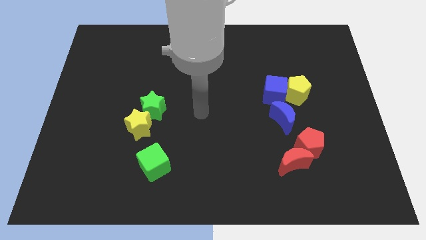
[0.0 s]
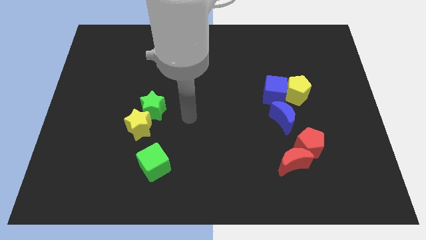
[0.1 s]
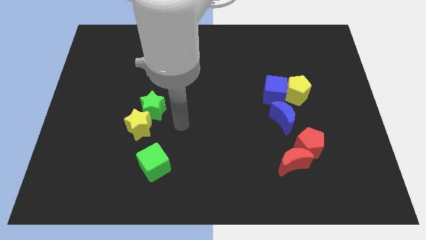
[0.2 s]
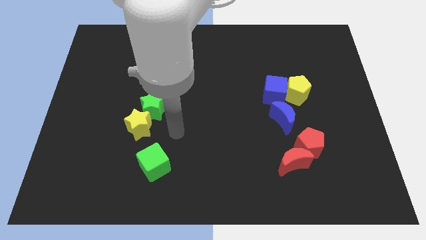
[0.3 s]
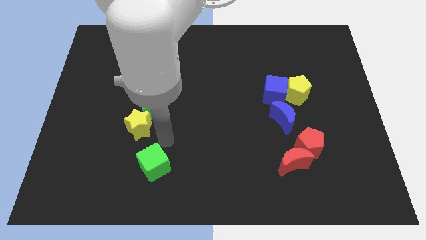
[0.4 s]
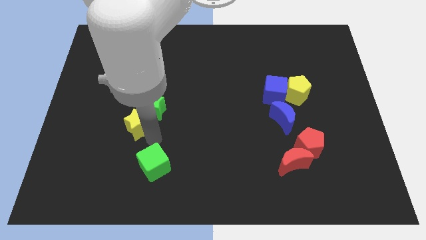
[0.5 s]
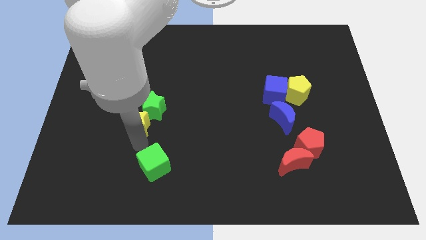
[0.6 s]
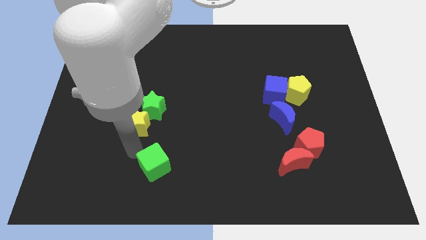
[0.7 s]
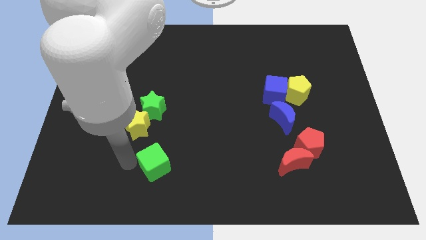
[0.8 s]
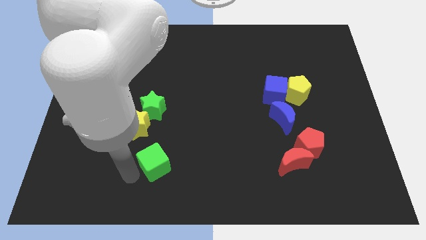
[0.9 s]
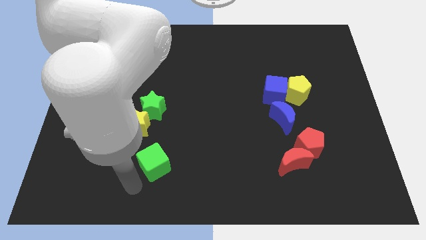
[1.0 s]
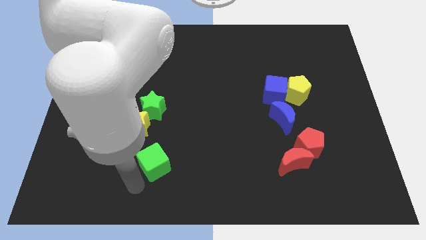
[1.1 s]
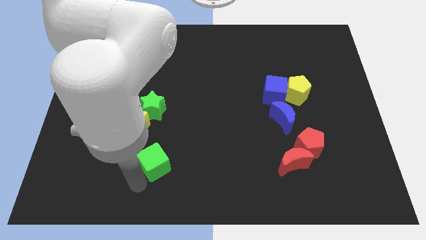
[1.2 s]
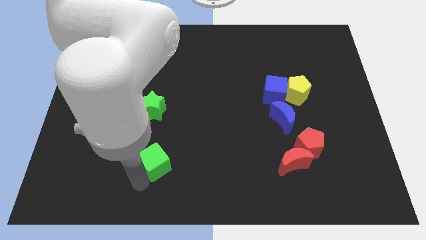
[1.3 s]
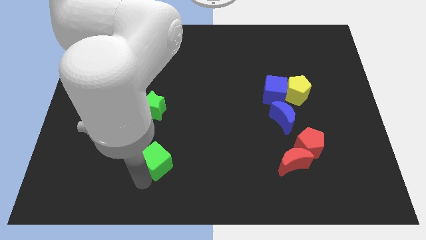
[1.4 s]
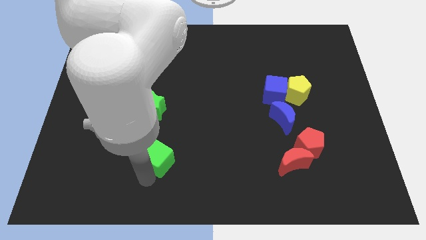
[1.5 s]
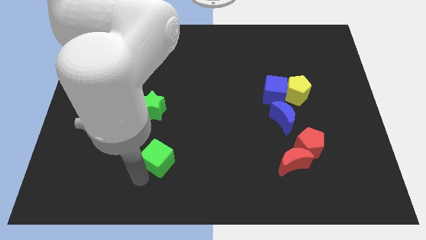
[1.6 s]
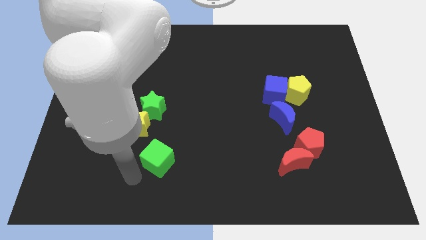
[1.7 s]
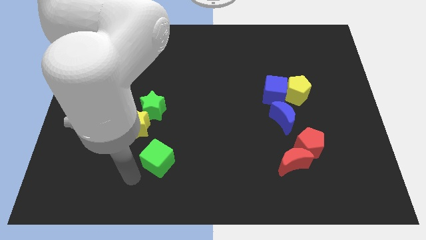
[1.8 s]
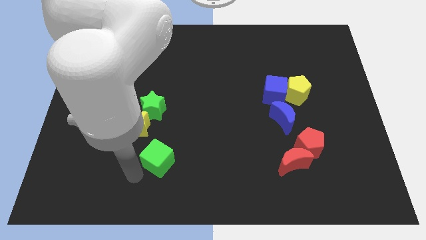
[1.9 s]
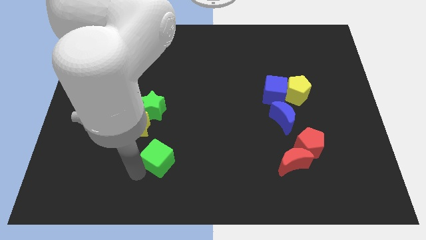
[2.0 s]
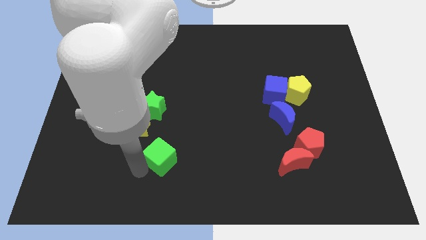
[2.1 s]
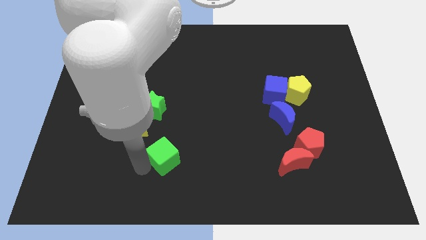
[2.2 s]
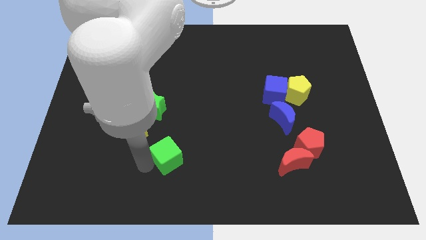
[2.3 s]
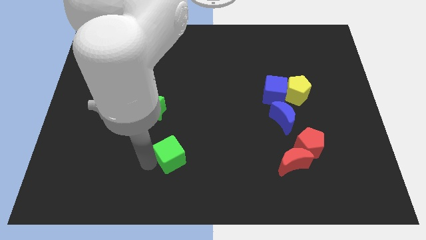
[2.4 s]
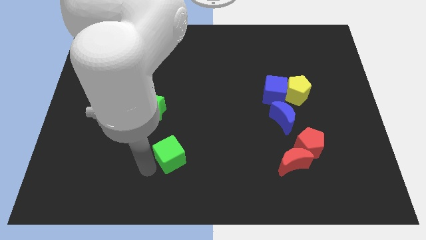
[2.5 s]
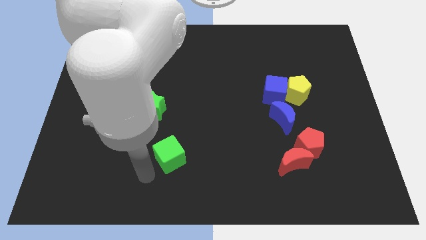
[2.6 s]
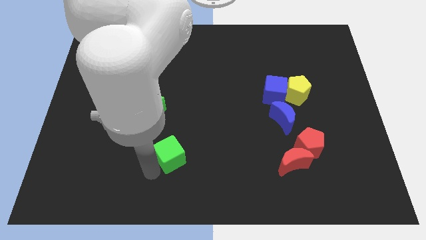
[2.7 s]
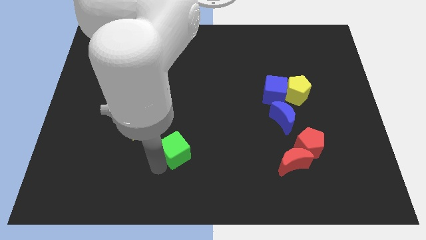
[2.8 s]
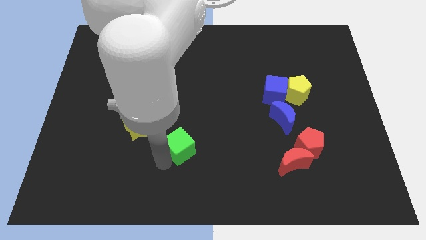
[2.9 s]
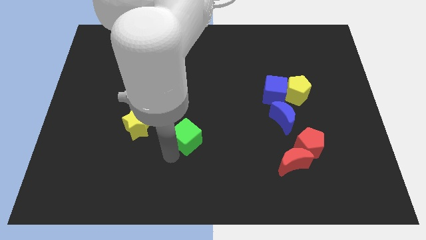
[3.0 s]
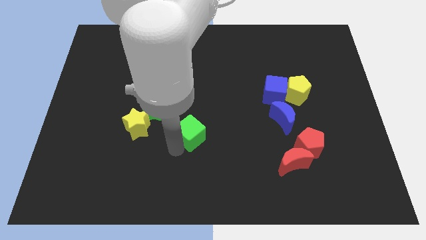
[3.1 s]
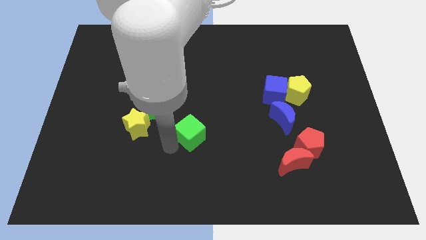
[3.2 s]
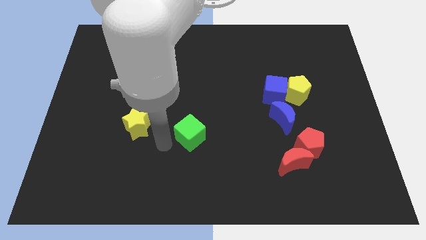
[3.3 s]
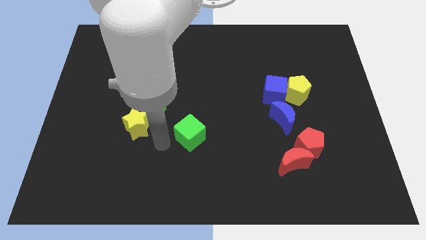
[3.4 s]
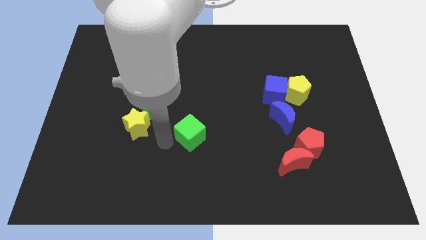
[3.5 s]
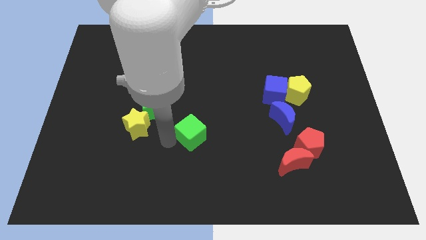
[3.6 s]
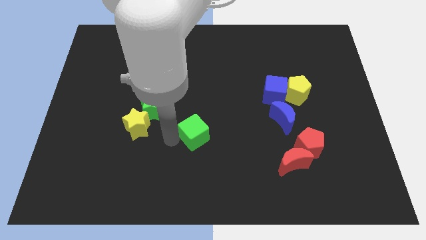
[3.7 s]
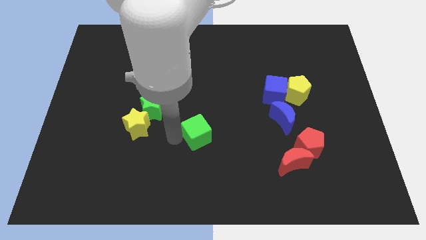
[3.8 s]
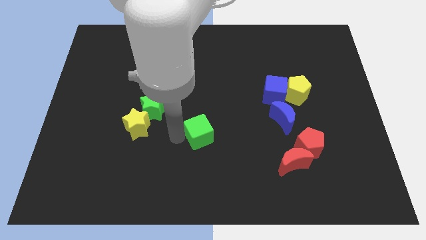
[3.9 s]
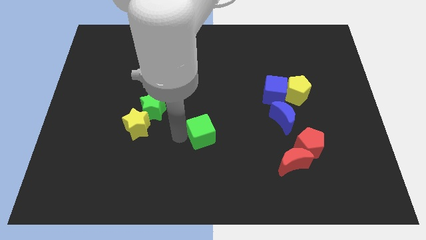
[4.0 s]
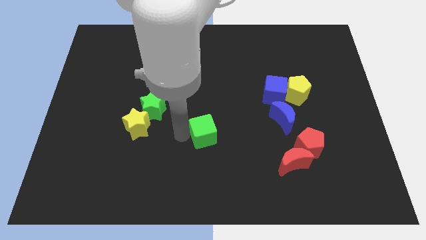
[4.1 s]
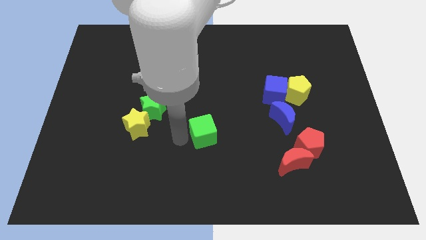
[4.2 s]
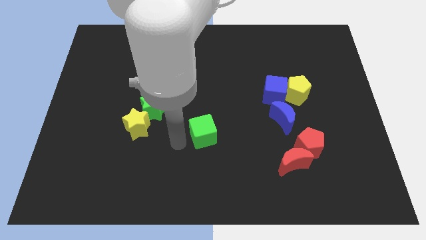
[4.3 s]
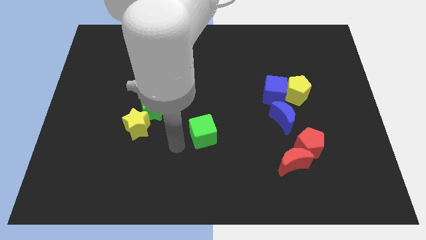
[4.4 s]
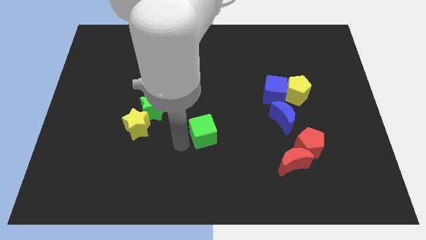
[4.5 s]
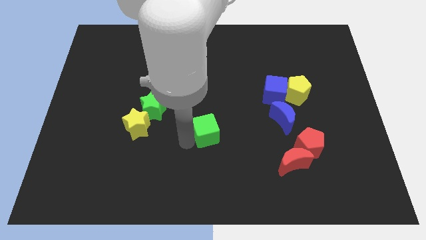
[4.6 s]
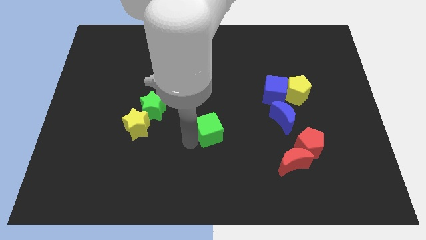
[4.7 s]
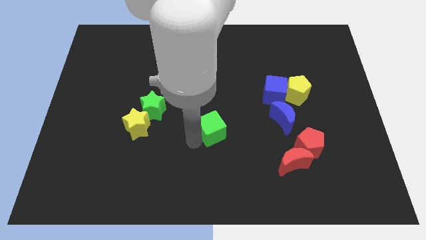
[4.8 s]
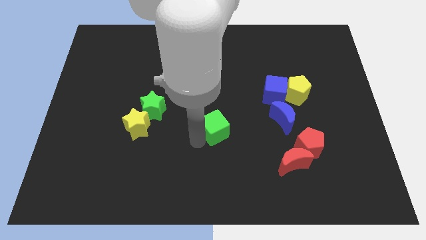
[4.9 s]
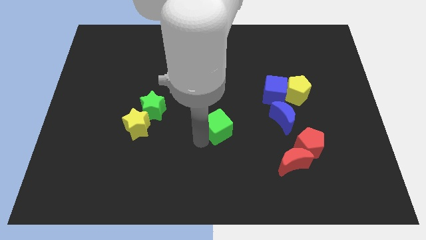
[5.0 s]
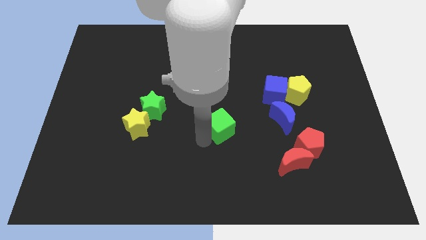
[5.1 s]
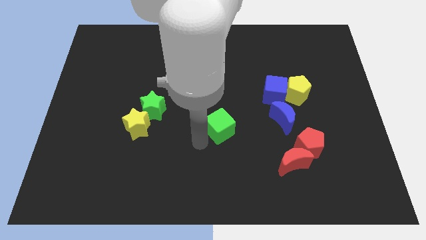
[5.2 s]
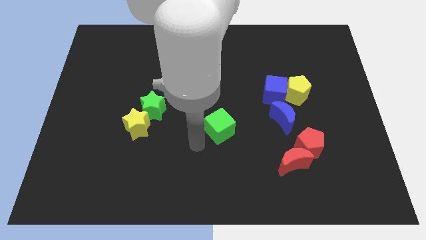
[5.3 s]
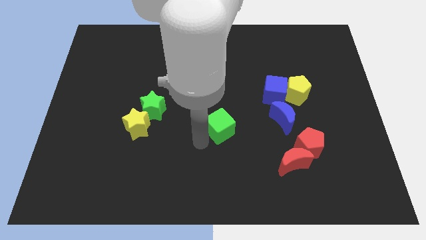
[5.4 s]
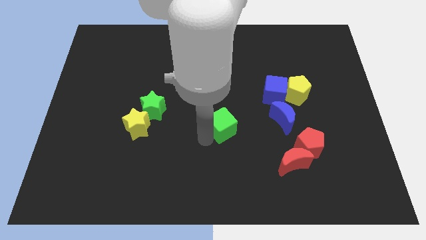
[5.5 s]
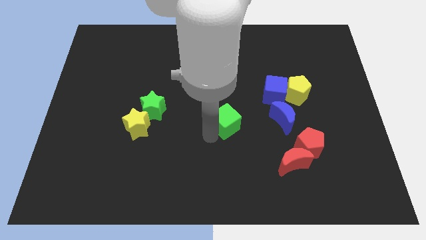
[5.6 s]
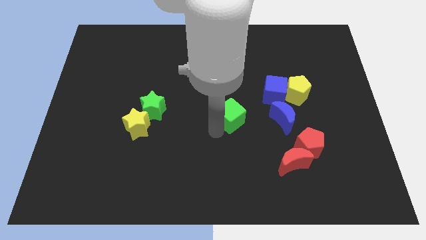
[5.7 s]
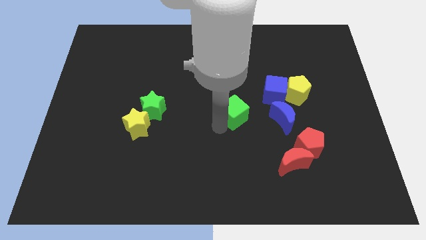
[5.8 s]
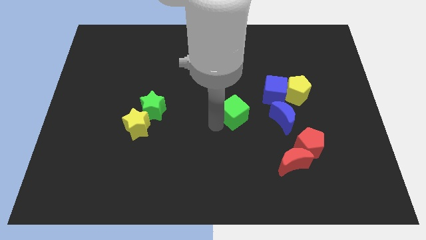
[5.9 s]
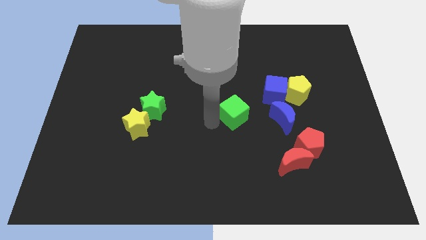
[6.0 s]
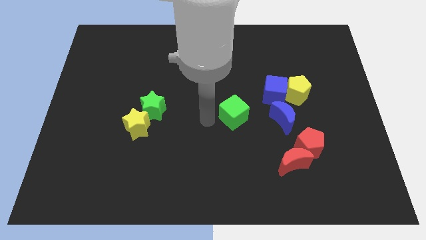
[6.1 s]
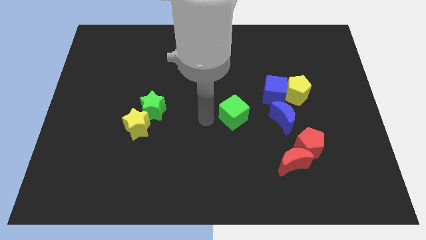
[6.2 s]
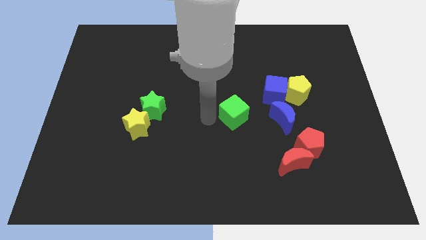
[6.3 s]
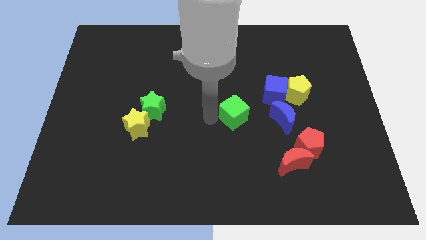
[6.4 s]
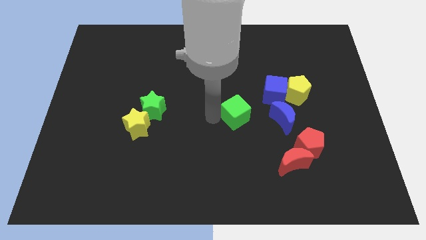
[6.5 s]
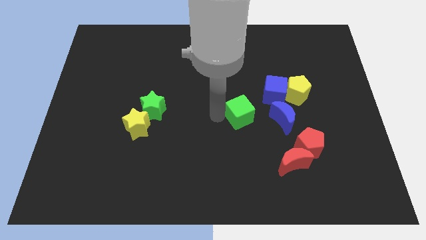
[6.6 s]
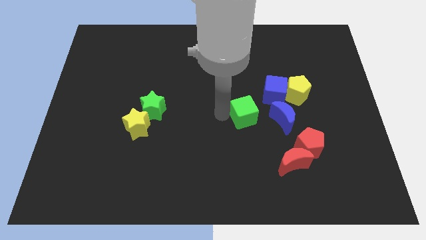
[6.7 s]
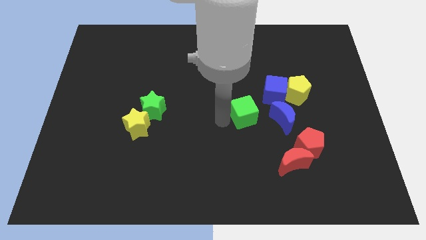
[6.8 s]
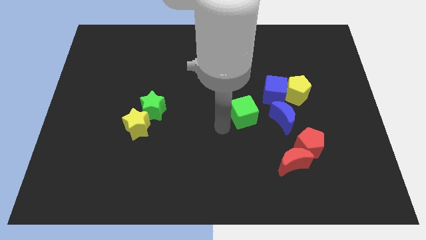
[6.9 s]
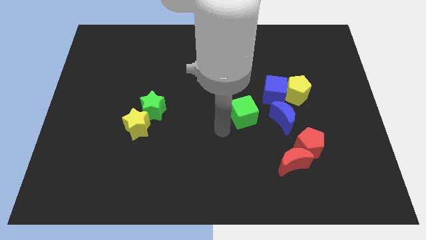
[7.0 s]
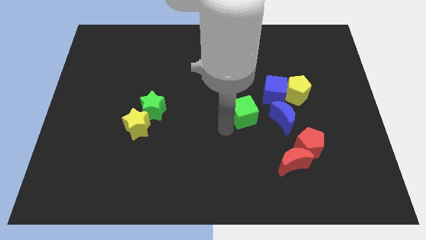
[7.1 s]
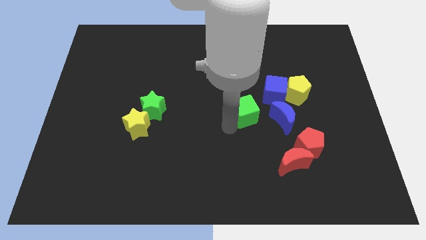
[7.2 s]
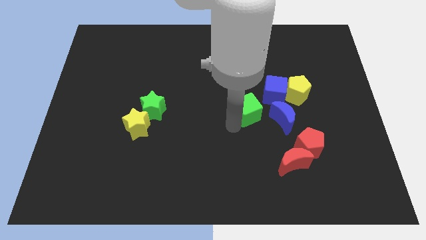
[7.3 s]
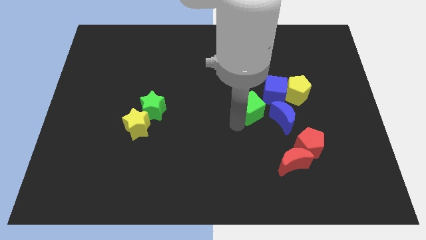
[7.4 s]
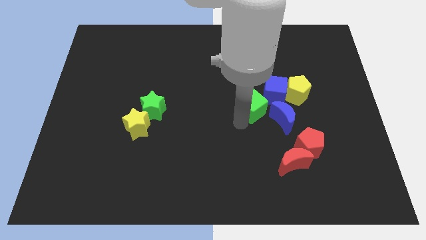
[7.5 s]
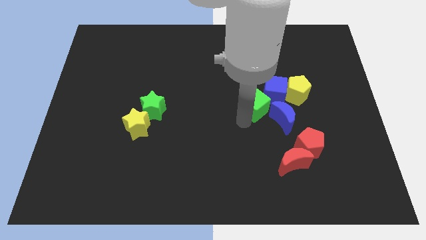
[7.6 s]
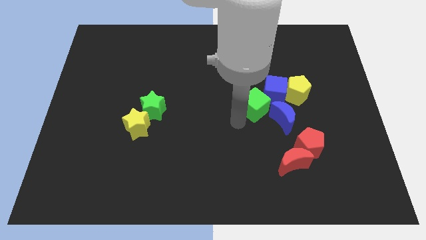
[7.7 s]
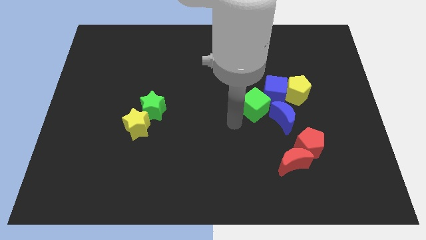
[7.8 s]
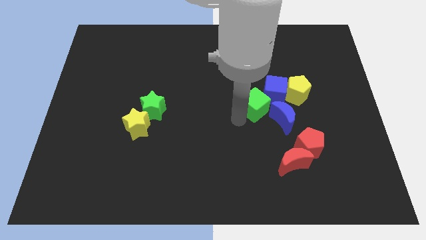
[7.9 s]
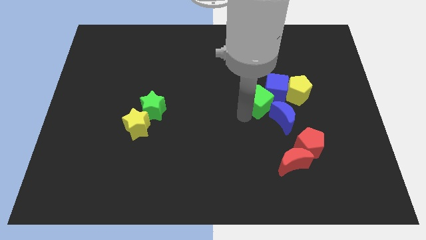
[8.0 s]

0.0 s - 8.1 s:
push the green cube towards the blue cube

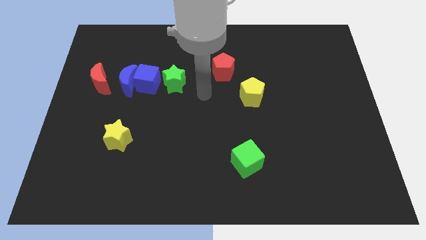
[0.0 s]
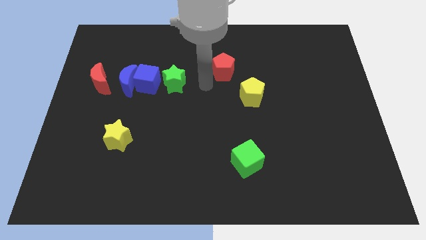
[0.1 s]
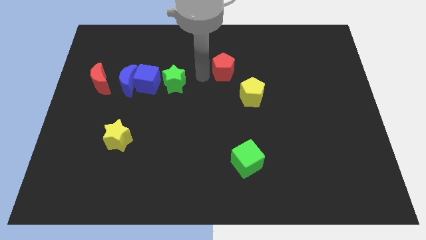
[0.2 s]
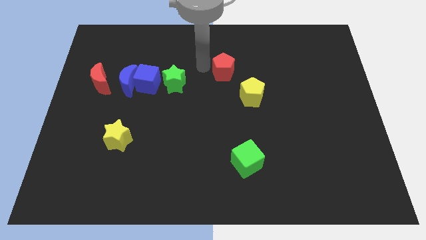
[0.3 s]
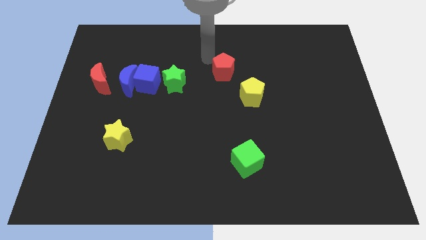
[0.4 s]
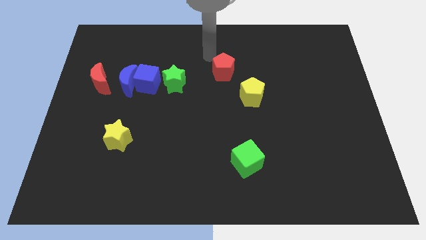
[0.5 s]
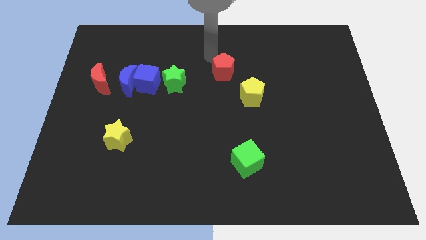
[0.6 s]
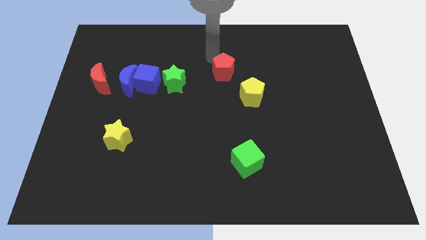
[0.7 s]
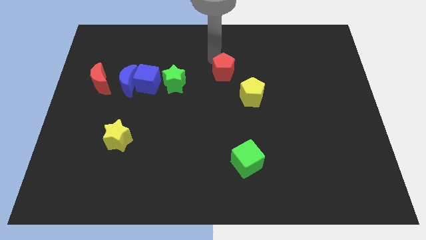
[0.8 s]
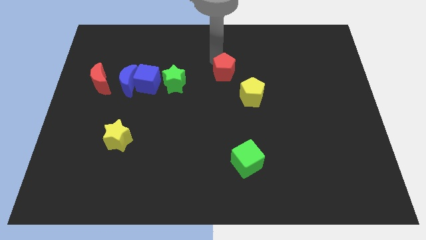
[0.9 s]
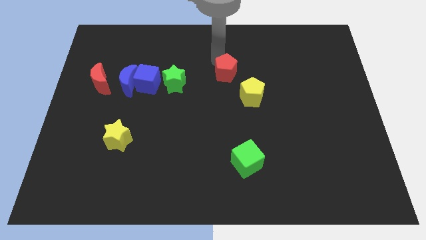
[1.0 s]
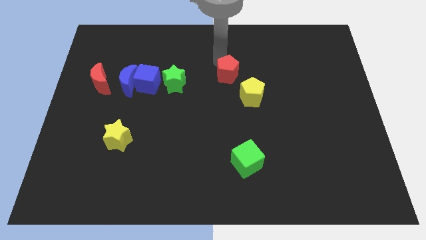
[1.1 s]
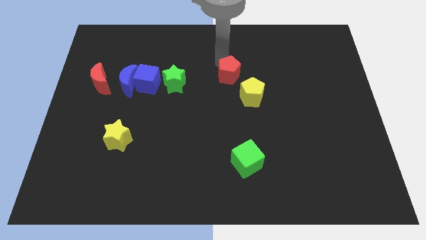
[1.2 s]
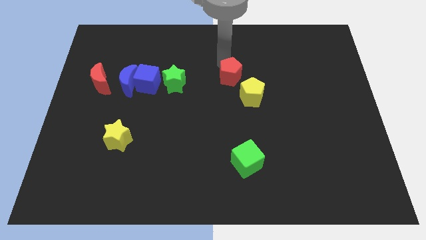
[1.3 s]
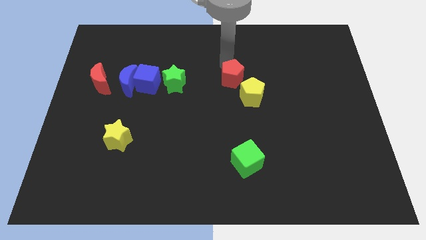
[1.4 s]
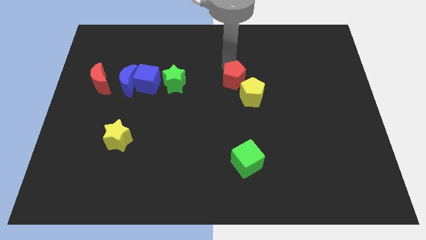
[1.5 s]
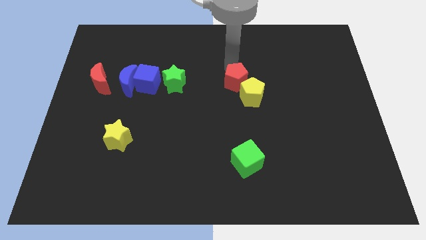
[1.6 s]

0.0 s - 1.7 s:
move the red pentagon to the yellow pentagon
